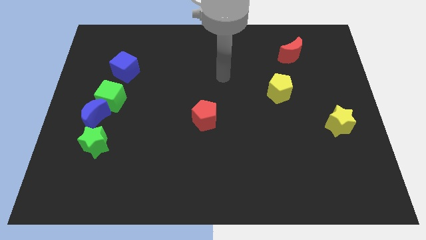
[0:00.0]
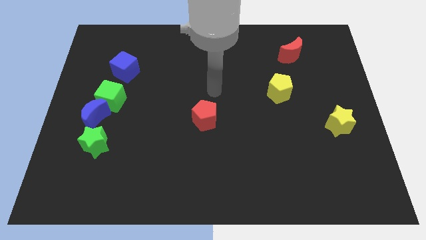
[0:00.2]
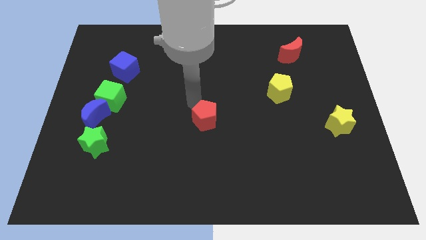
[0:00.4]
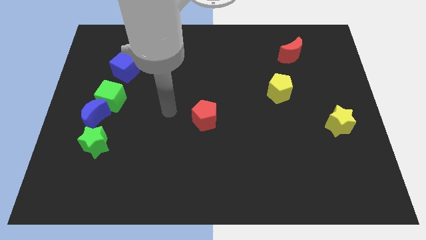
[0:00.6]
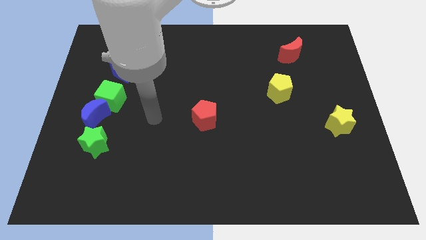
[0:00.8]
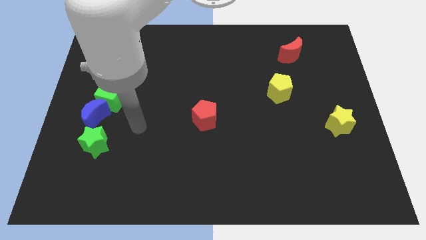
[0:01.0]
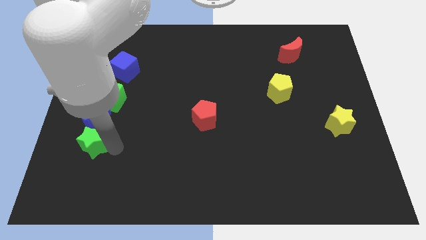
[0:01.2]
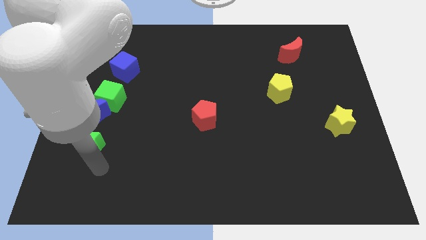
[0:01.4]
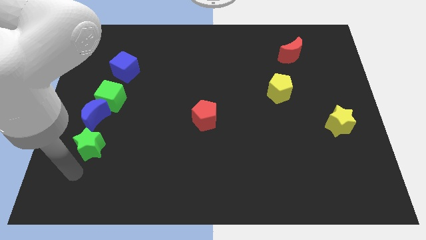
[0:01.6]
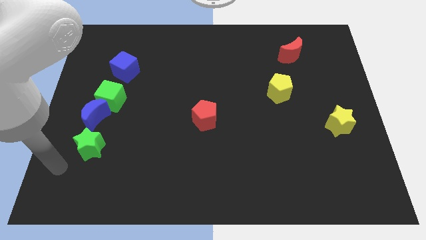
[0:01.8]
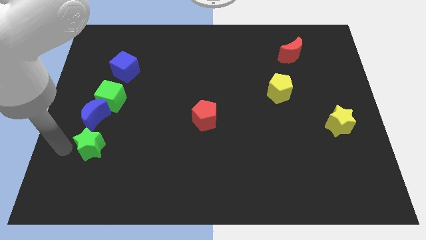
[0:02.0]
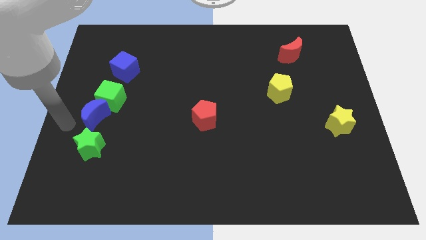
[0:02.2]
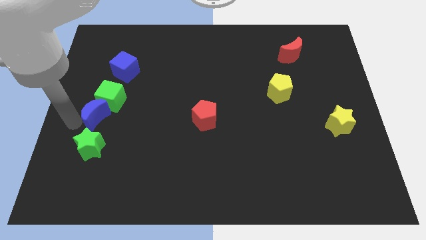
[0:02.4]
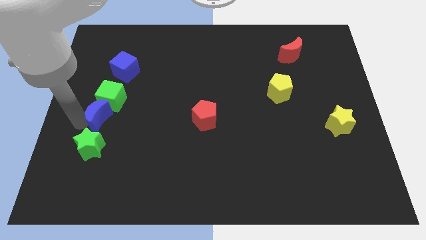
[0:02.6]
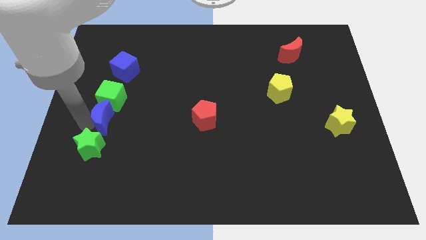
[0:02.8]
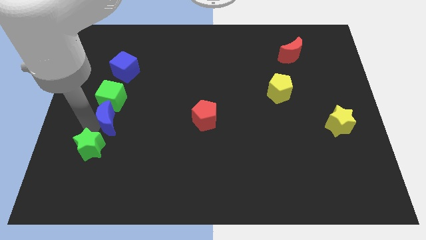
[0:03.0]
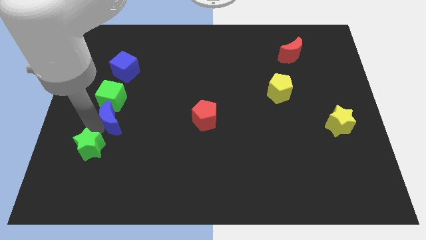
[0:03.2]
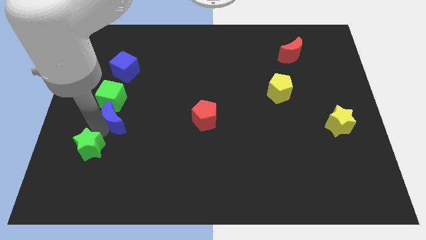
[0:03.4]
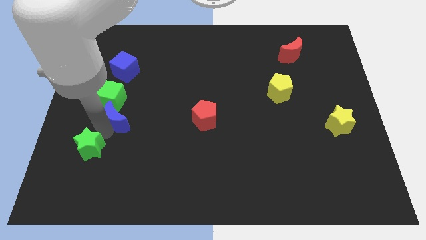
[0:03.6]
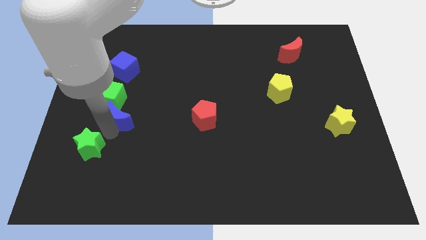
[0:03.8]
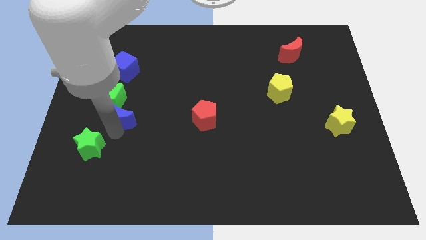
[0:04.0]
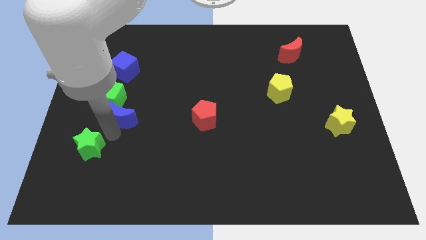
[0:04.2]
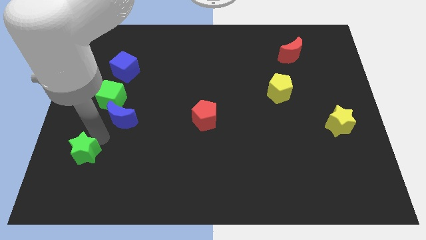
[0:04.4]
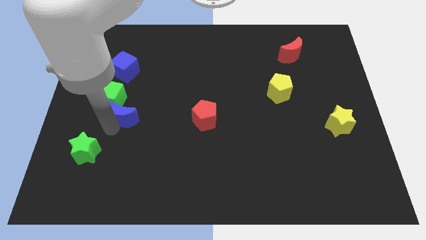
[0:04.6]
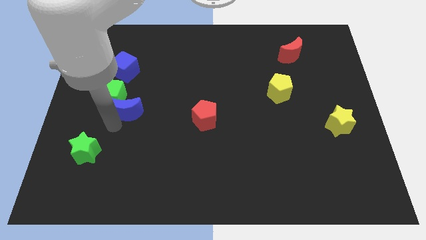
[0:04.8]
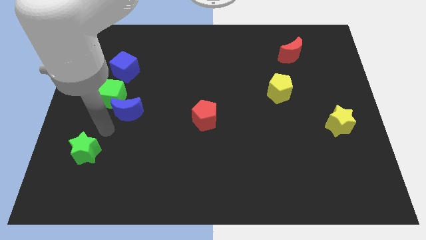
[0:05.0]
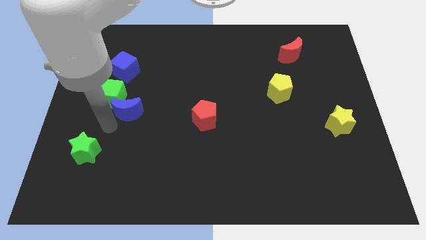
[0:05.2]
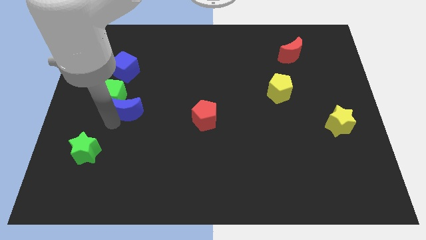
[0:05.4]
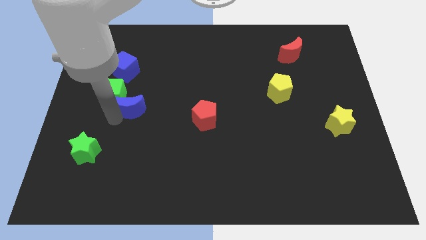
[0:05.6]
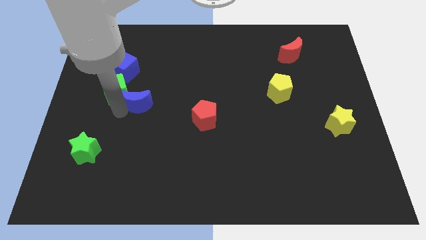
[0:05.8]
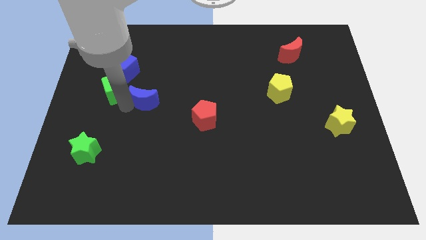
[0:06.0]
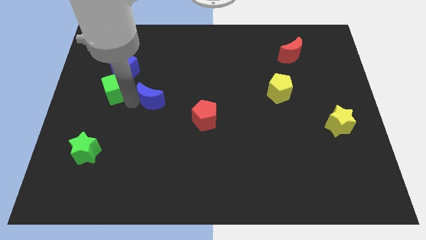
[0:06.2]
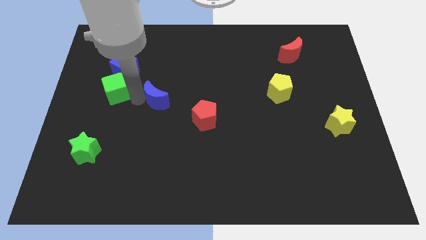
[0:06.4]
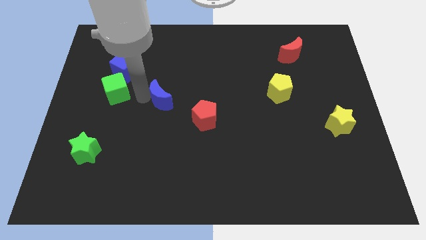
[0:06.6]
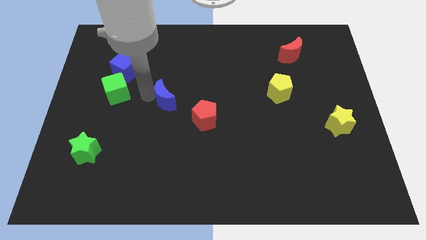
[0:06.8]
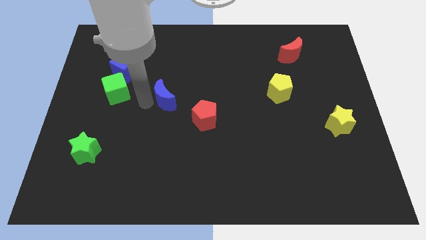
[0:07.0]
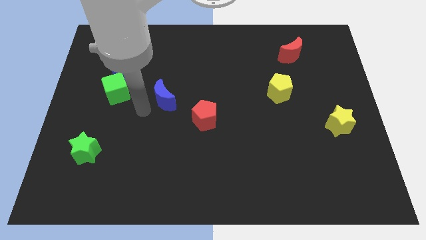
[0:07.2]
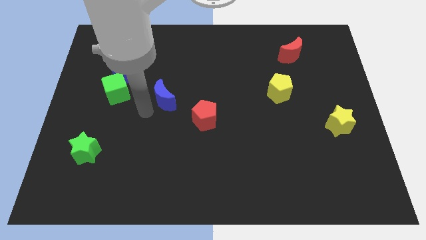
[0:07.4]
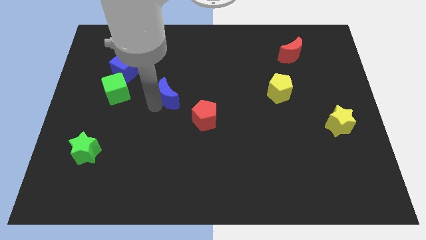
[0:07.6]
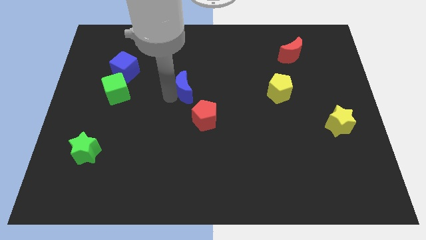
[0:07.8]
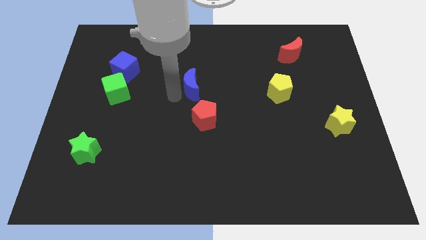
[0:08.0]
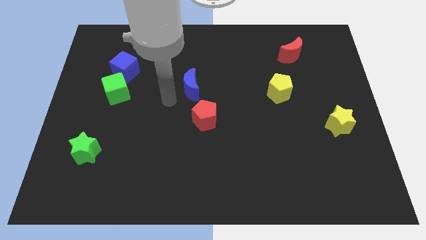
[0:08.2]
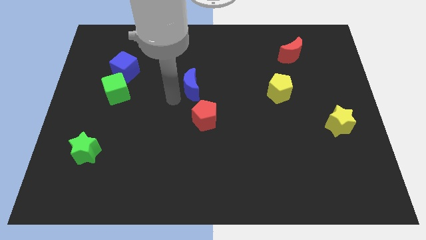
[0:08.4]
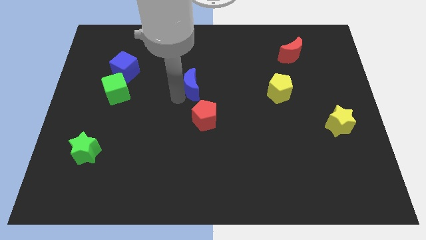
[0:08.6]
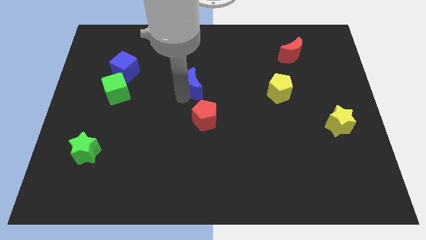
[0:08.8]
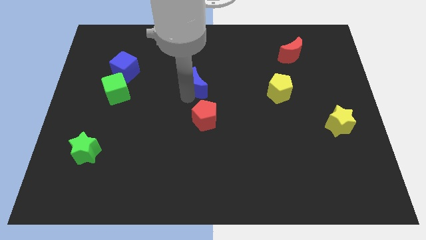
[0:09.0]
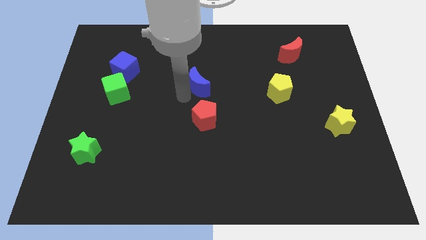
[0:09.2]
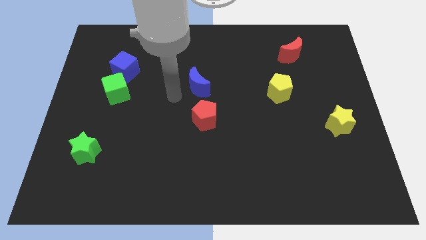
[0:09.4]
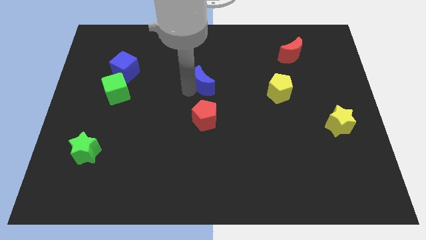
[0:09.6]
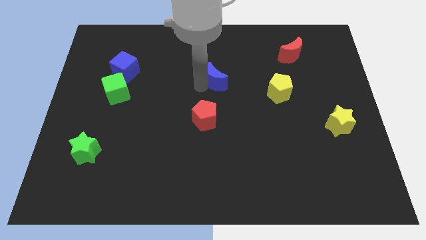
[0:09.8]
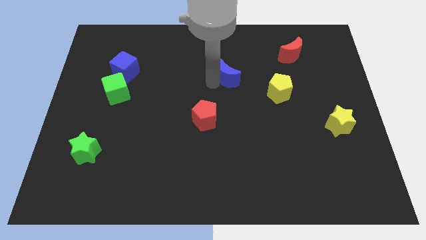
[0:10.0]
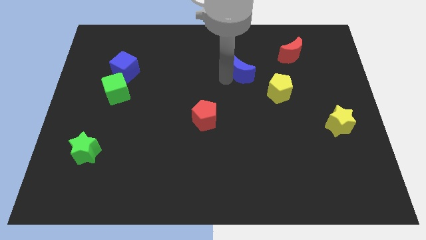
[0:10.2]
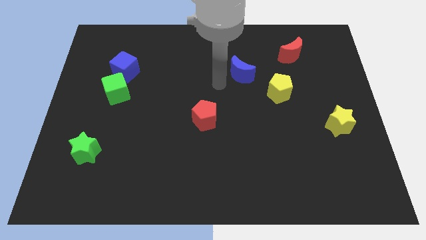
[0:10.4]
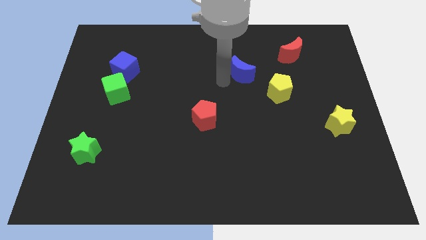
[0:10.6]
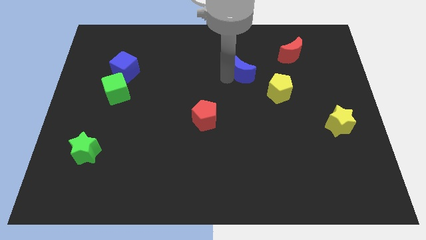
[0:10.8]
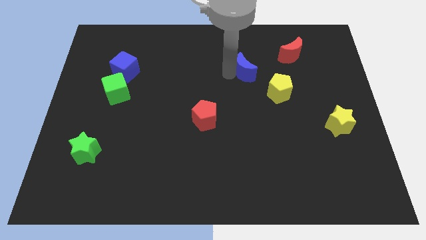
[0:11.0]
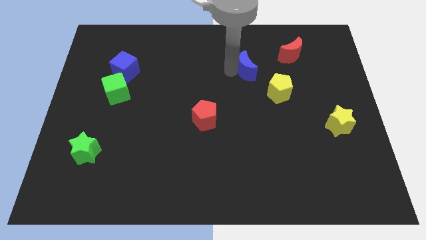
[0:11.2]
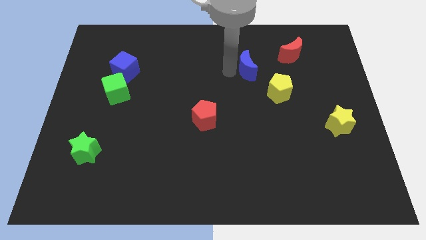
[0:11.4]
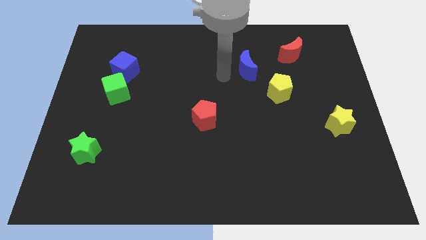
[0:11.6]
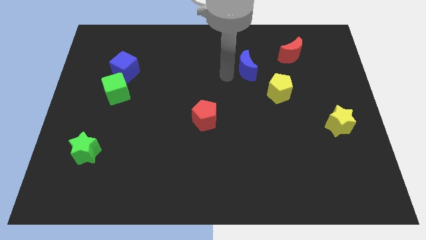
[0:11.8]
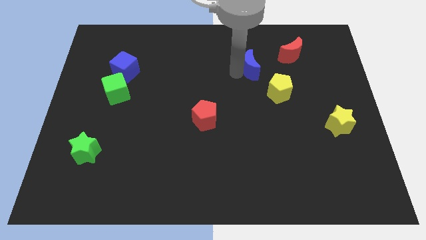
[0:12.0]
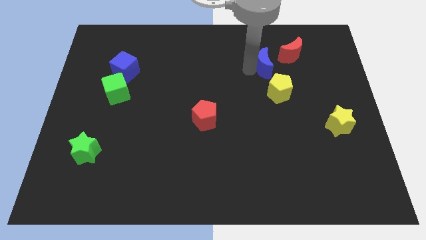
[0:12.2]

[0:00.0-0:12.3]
put the blue moon to the top of the yellow pentagon

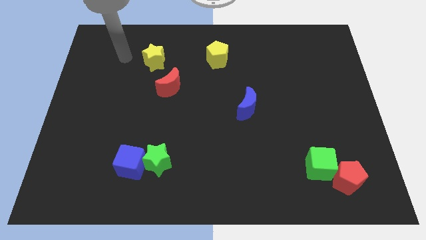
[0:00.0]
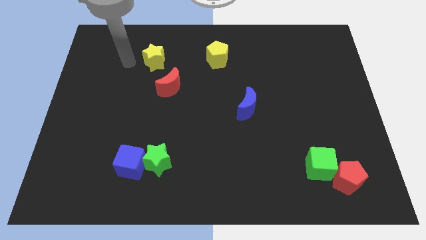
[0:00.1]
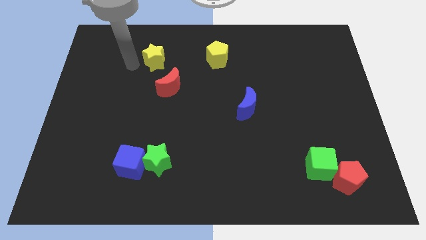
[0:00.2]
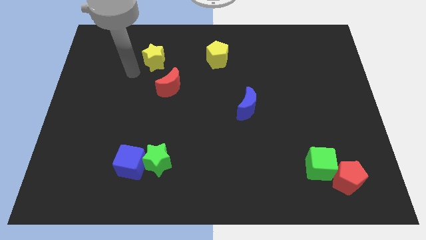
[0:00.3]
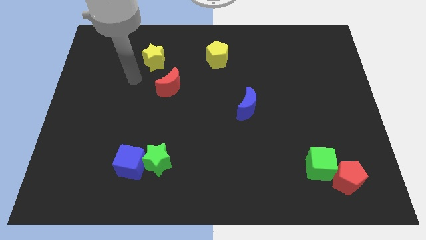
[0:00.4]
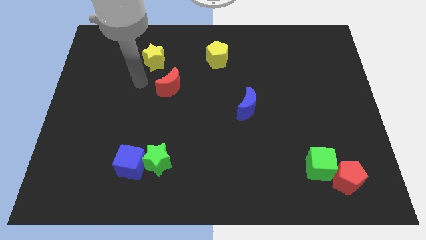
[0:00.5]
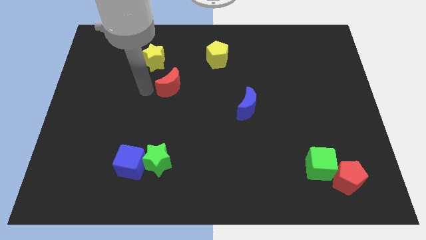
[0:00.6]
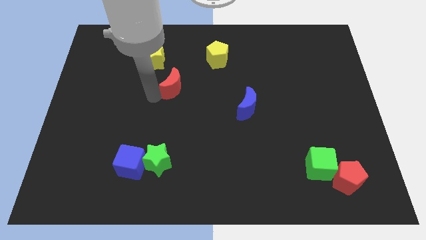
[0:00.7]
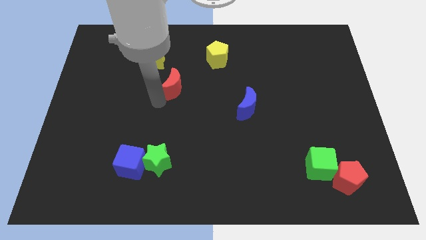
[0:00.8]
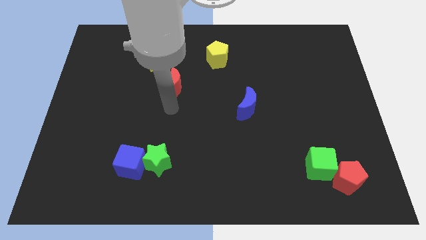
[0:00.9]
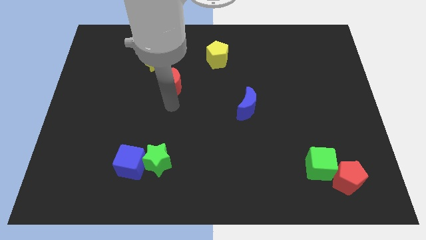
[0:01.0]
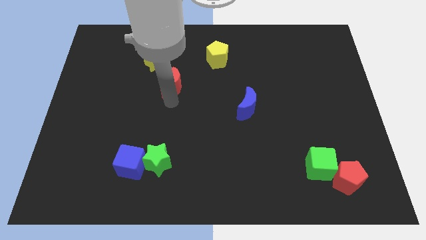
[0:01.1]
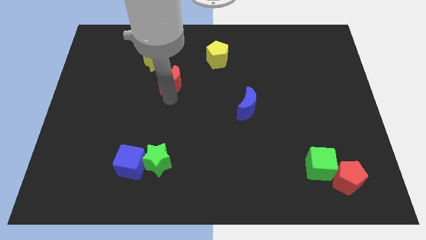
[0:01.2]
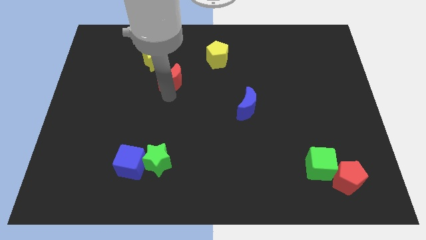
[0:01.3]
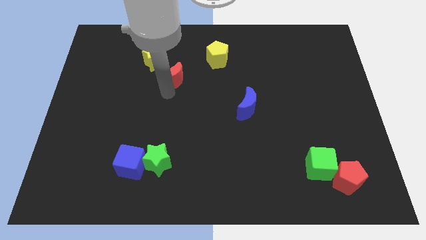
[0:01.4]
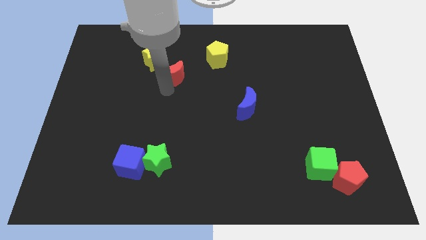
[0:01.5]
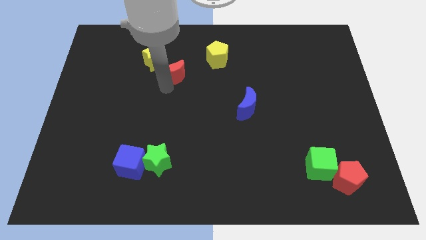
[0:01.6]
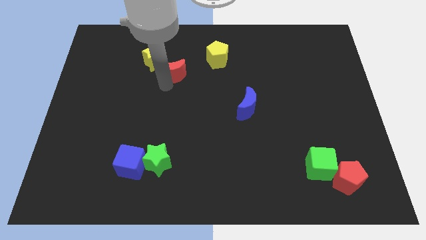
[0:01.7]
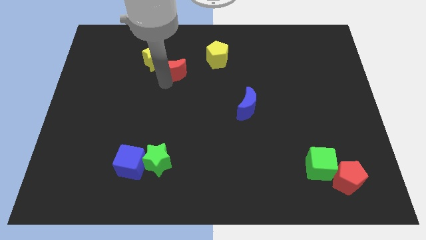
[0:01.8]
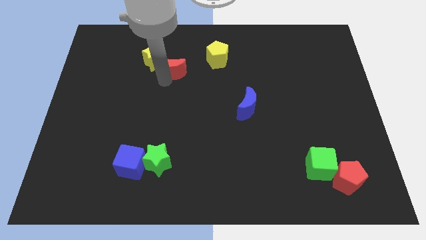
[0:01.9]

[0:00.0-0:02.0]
put the red moon to the left side of the yellow pentagon
